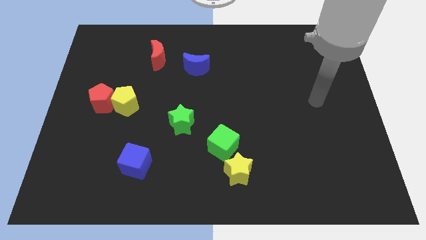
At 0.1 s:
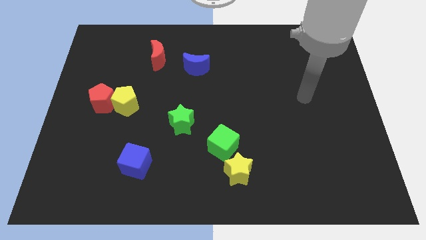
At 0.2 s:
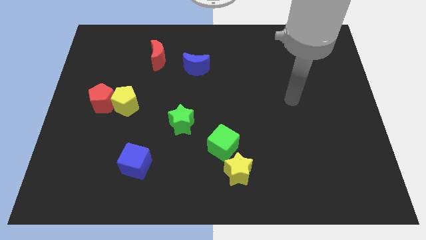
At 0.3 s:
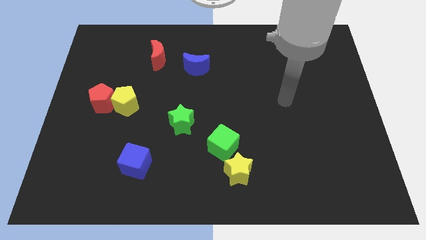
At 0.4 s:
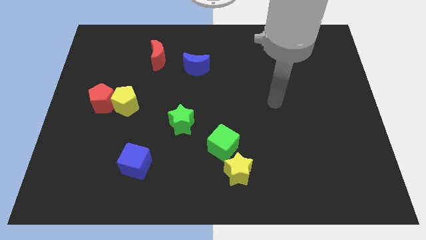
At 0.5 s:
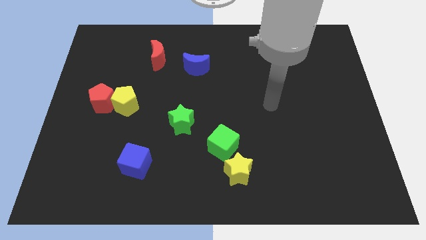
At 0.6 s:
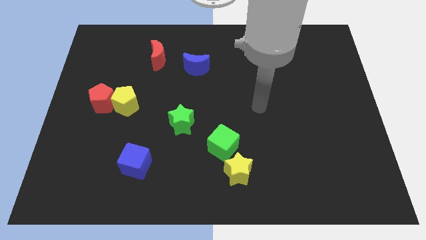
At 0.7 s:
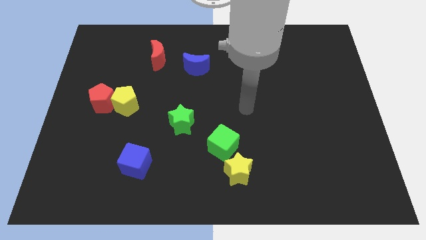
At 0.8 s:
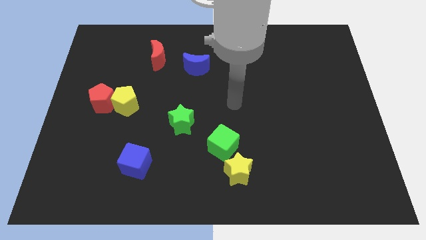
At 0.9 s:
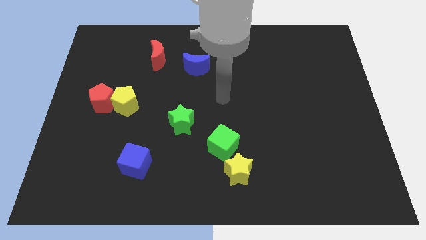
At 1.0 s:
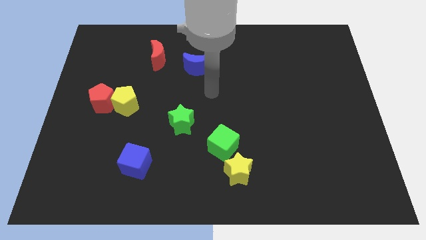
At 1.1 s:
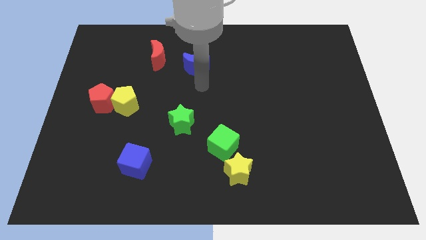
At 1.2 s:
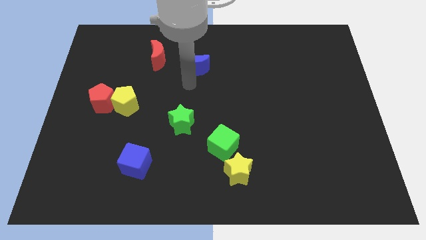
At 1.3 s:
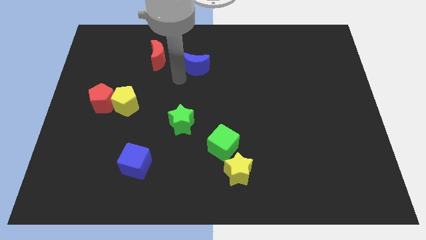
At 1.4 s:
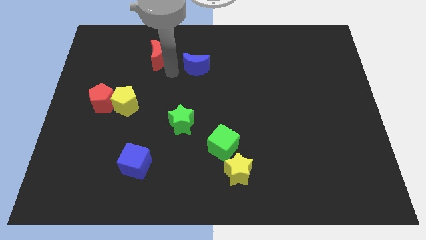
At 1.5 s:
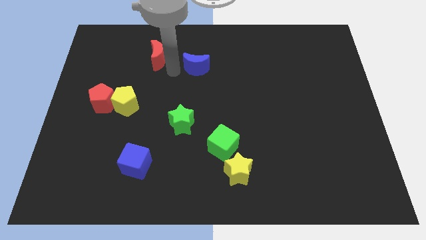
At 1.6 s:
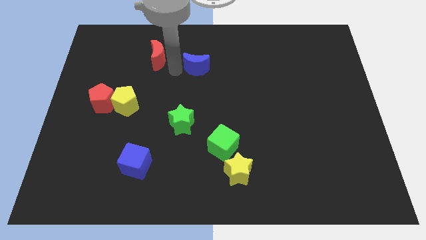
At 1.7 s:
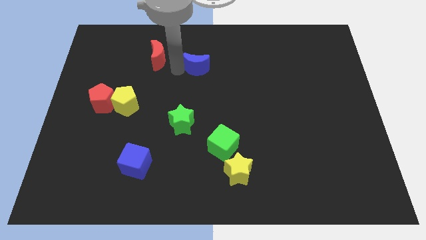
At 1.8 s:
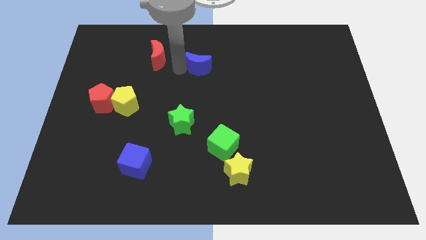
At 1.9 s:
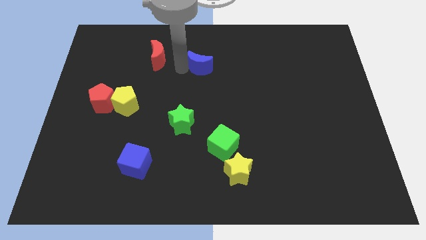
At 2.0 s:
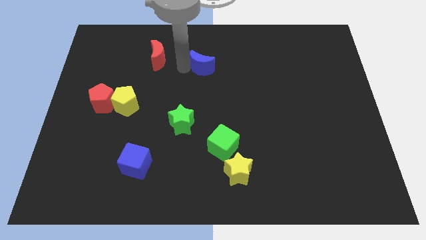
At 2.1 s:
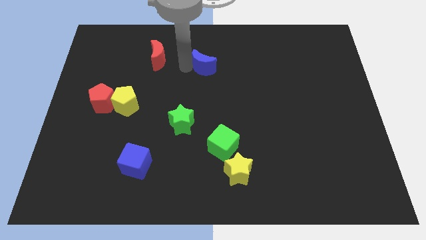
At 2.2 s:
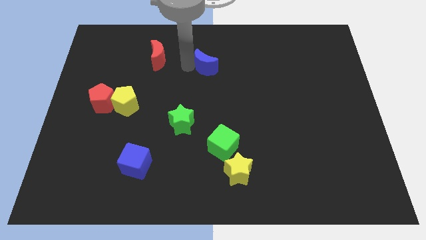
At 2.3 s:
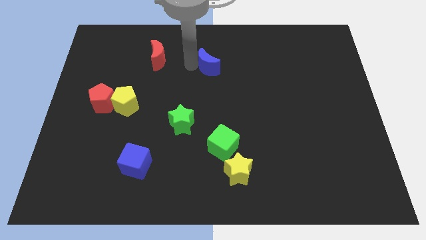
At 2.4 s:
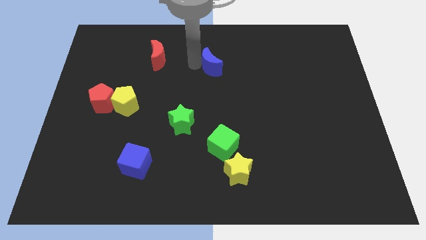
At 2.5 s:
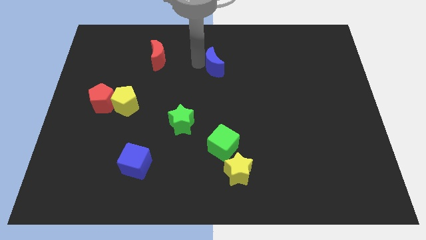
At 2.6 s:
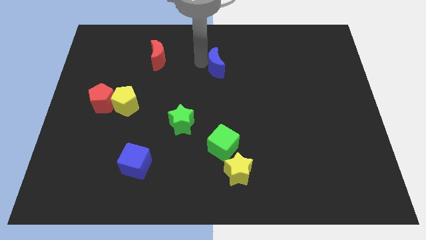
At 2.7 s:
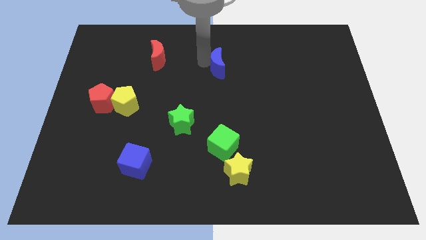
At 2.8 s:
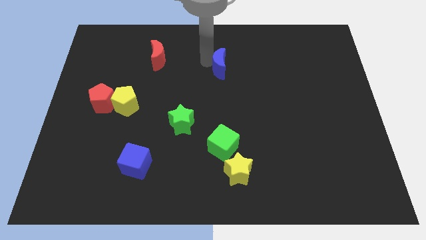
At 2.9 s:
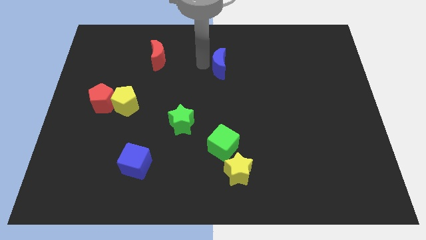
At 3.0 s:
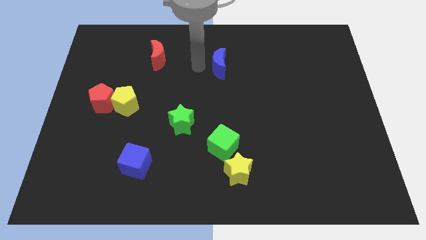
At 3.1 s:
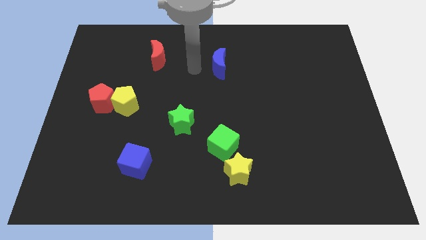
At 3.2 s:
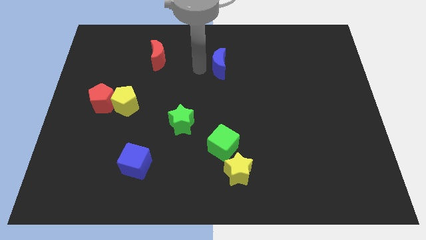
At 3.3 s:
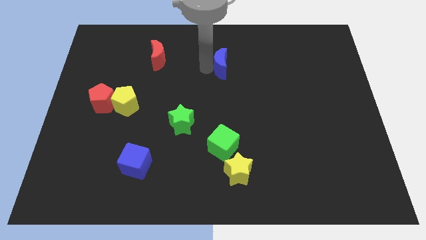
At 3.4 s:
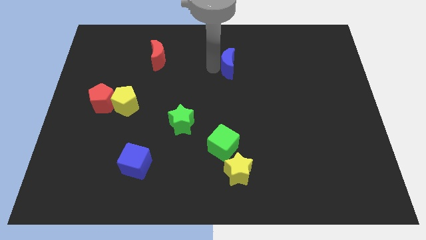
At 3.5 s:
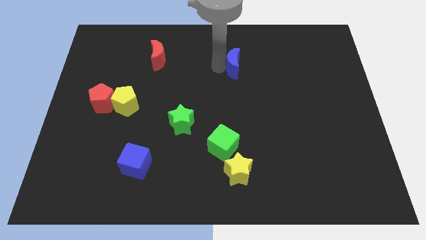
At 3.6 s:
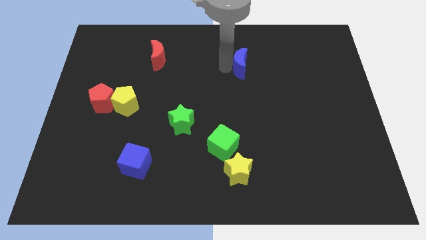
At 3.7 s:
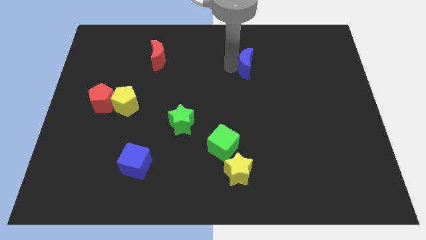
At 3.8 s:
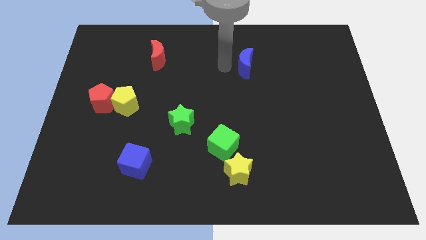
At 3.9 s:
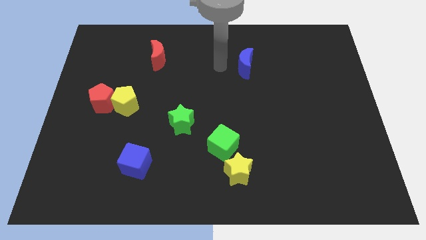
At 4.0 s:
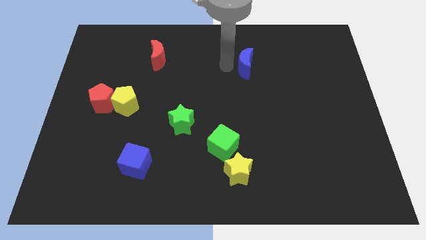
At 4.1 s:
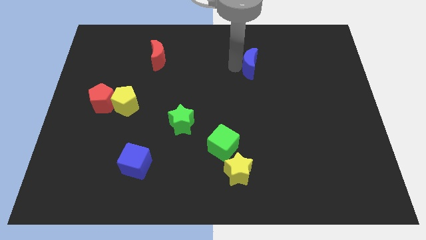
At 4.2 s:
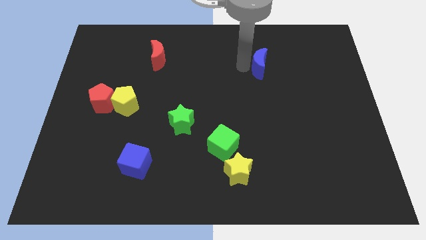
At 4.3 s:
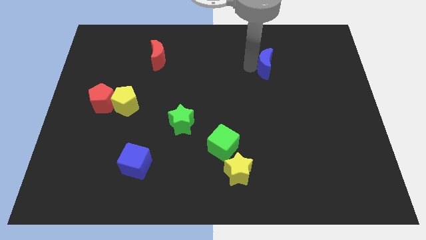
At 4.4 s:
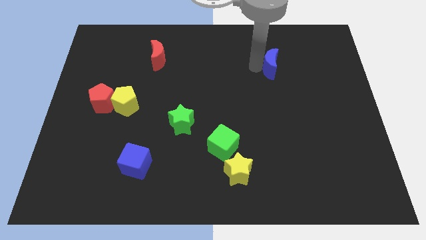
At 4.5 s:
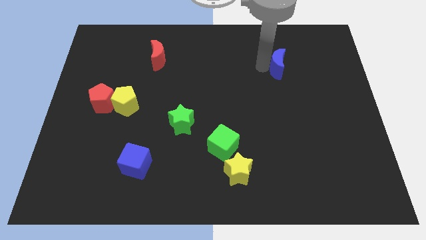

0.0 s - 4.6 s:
push the blue moon to the right

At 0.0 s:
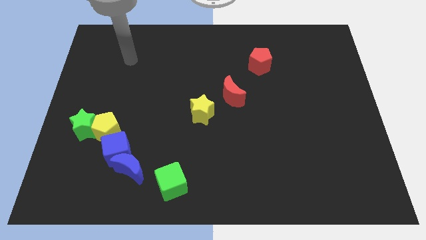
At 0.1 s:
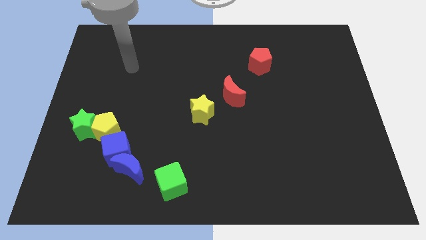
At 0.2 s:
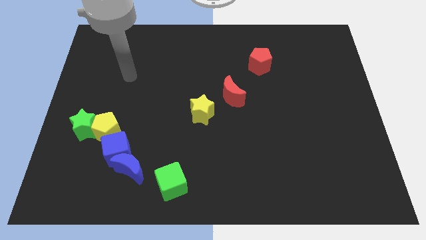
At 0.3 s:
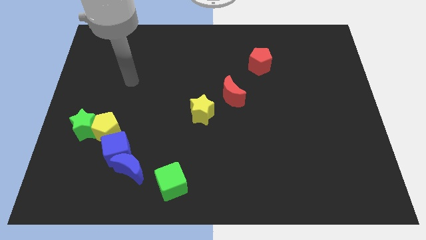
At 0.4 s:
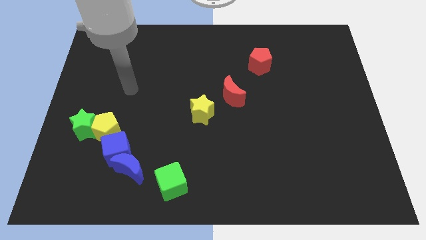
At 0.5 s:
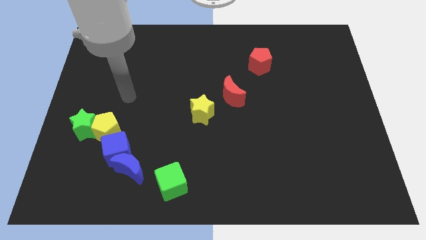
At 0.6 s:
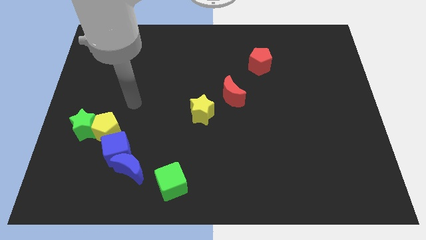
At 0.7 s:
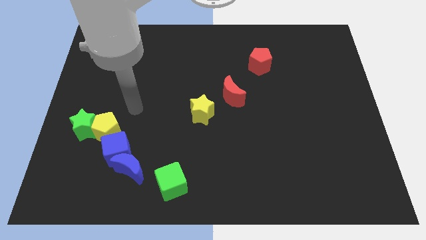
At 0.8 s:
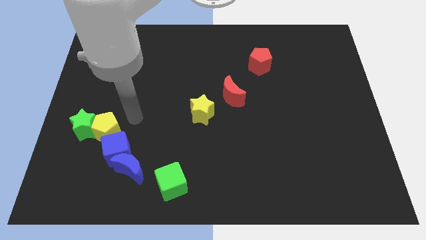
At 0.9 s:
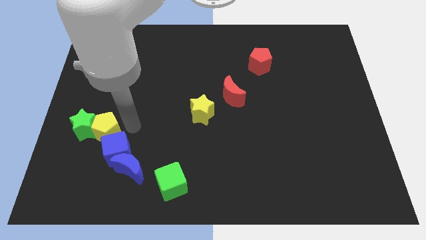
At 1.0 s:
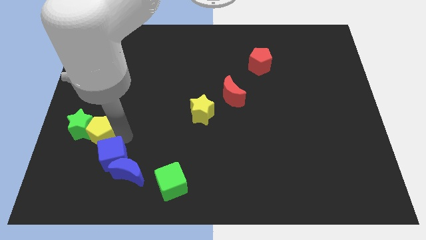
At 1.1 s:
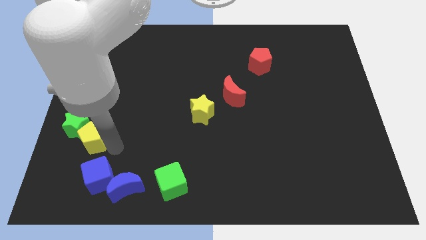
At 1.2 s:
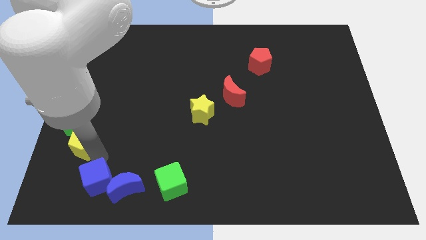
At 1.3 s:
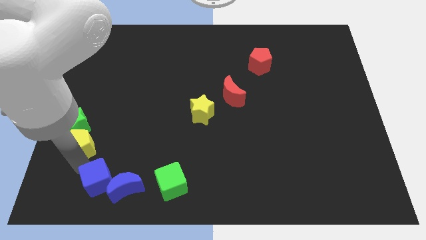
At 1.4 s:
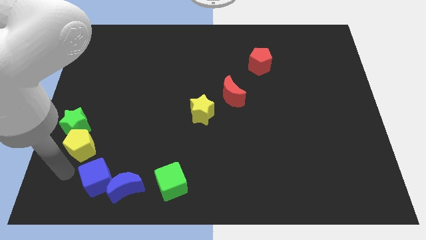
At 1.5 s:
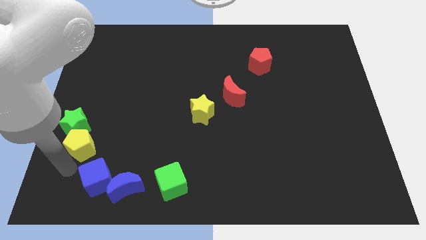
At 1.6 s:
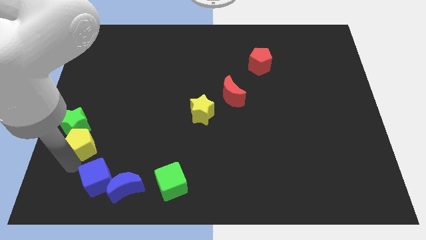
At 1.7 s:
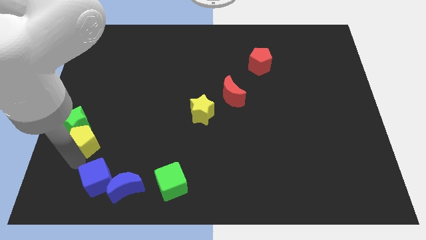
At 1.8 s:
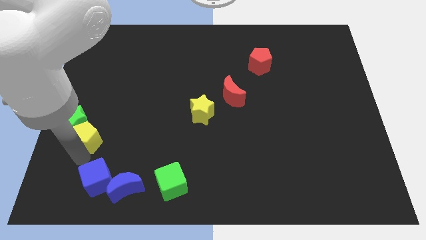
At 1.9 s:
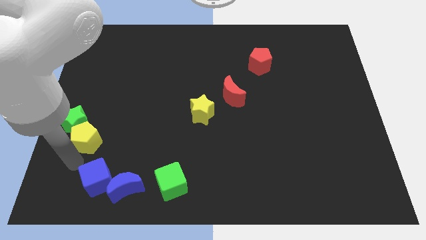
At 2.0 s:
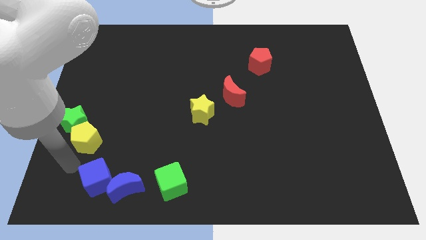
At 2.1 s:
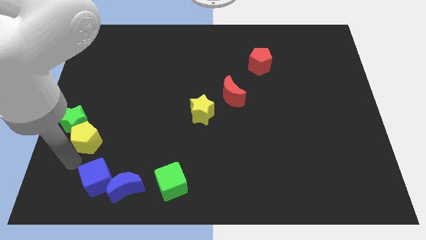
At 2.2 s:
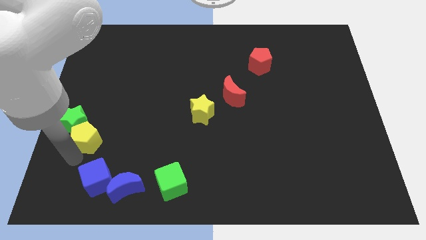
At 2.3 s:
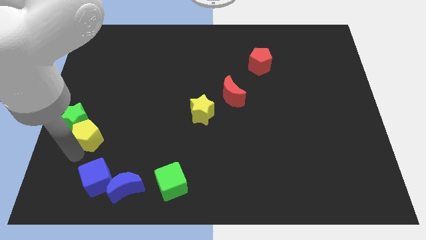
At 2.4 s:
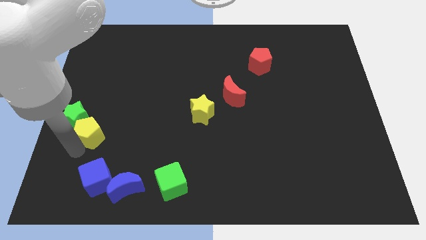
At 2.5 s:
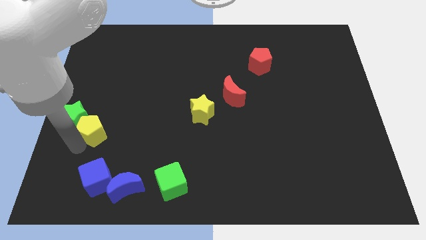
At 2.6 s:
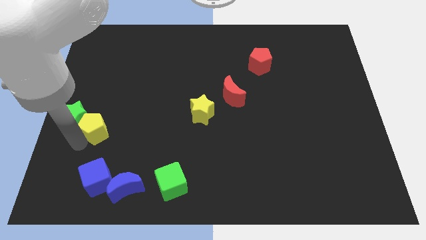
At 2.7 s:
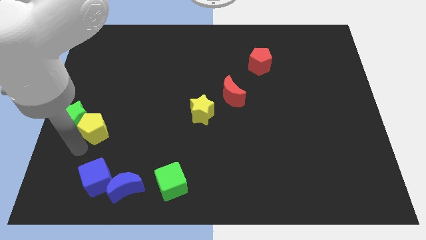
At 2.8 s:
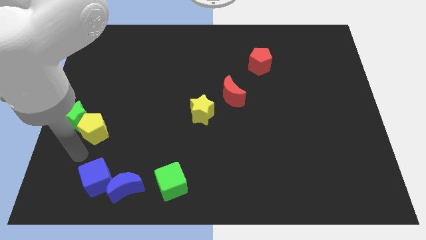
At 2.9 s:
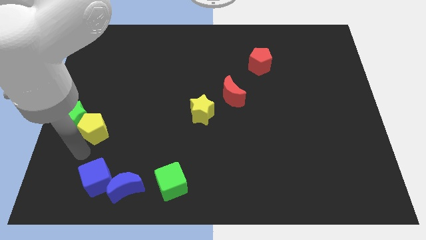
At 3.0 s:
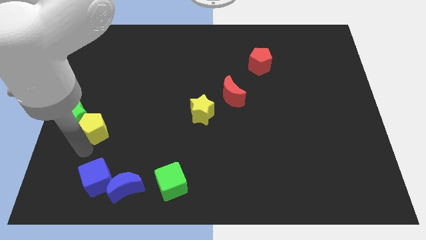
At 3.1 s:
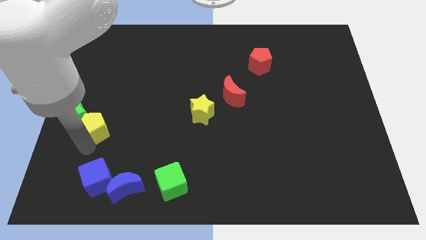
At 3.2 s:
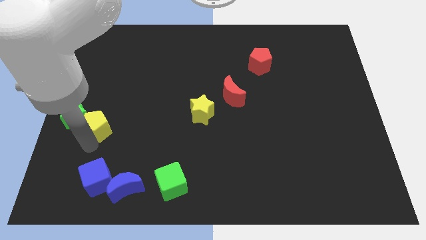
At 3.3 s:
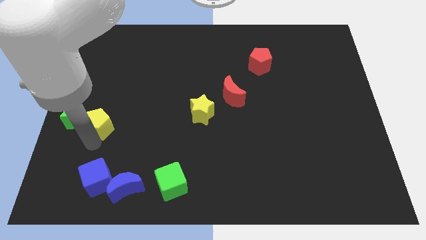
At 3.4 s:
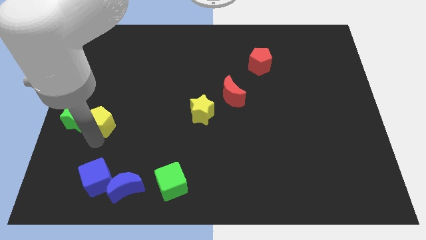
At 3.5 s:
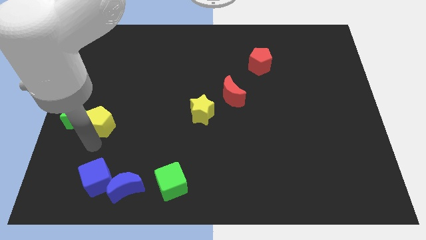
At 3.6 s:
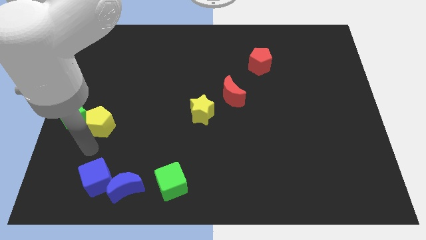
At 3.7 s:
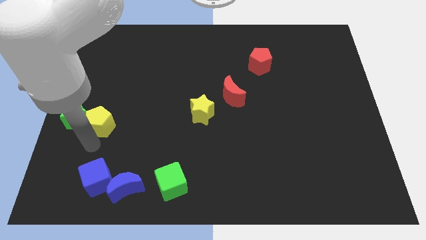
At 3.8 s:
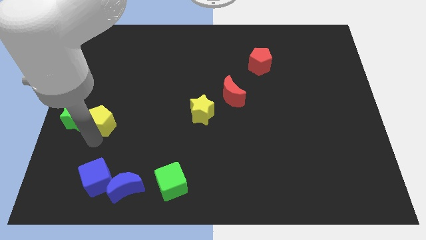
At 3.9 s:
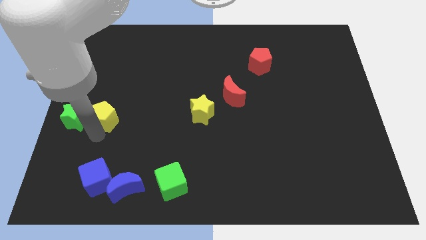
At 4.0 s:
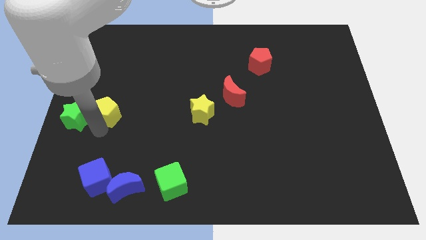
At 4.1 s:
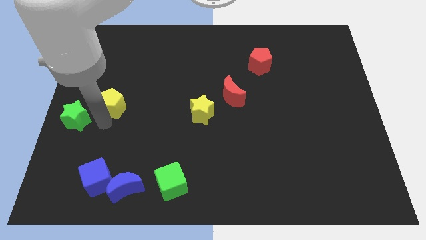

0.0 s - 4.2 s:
slightly slide the yellow pentagon up
